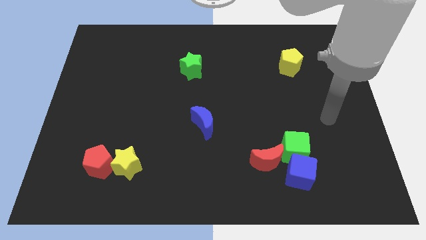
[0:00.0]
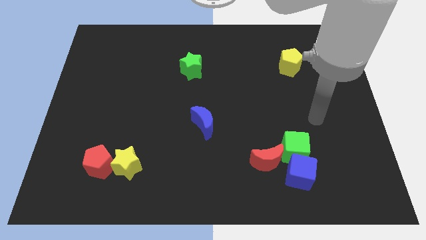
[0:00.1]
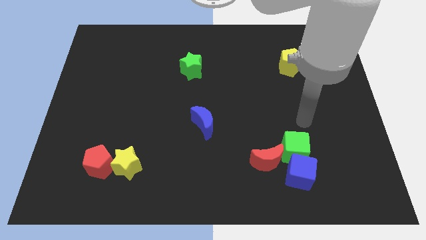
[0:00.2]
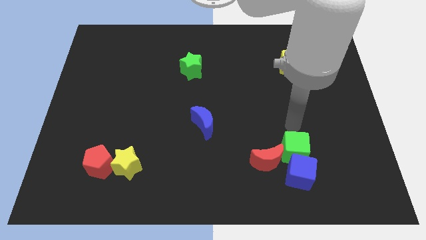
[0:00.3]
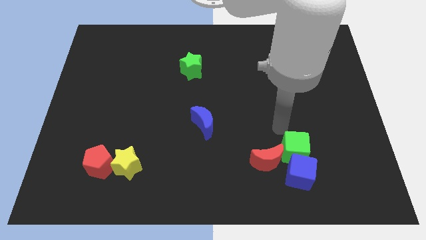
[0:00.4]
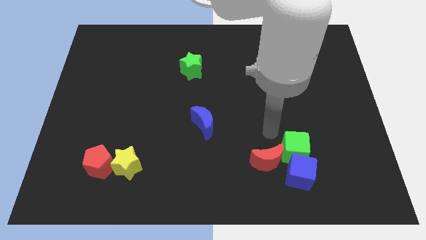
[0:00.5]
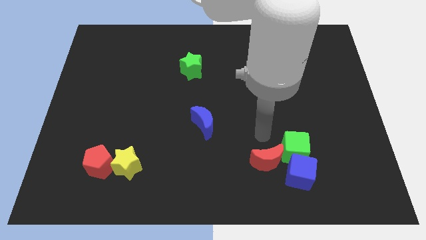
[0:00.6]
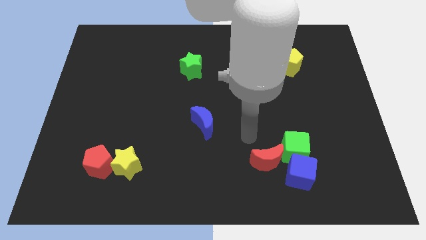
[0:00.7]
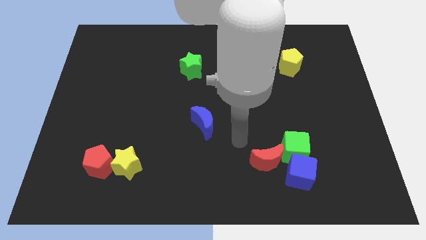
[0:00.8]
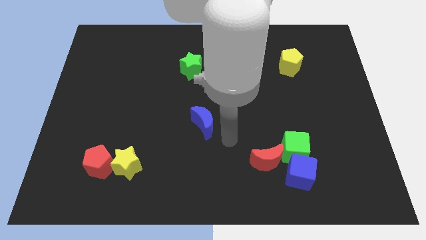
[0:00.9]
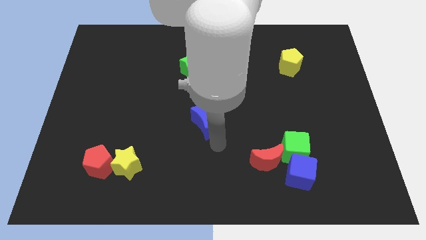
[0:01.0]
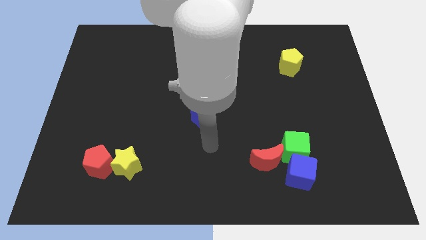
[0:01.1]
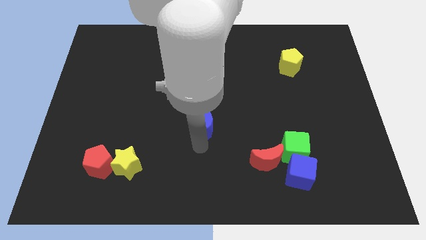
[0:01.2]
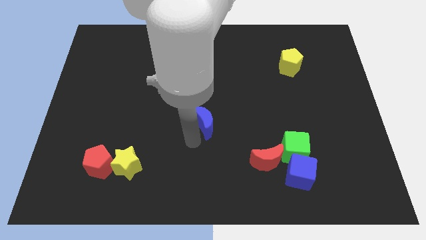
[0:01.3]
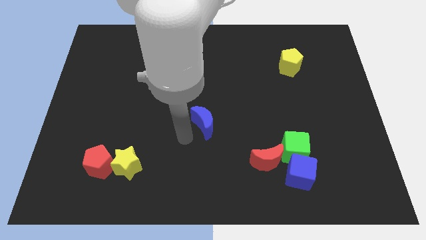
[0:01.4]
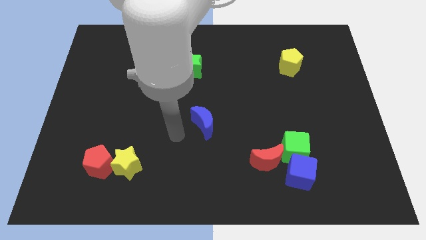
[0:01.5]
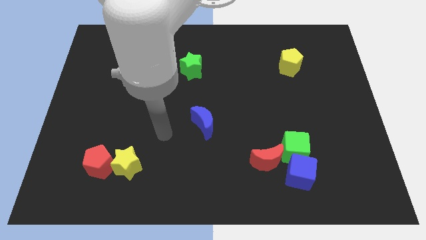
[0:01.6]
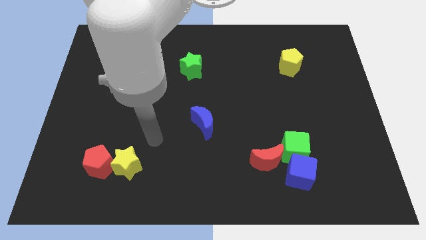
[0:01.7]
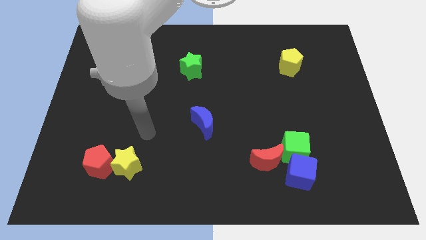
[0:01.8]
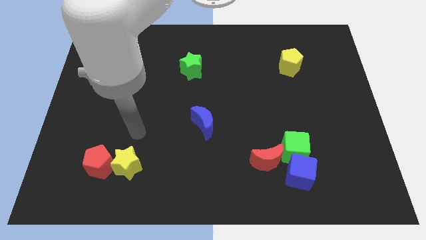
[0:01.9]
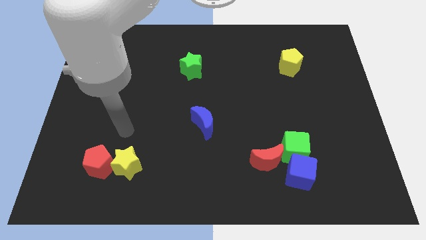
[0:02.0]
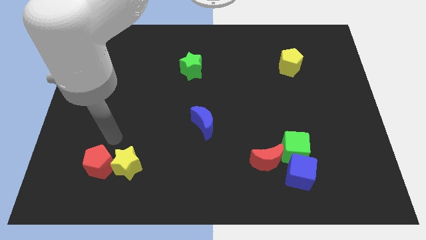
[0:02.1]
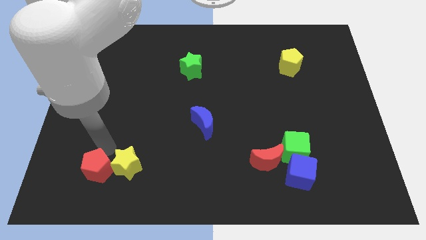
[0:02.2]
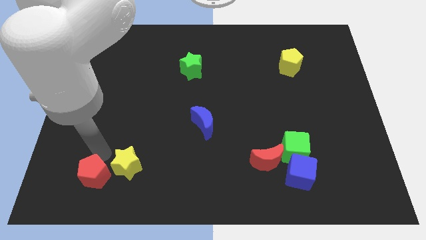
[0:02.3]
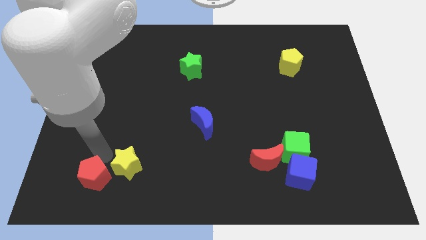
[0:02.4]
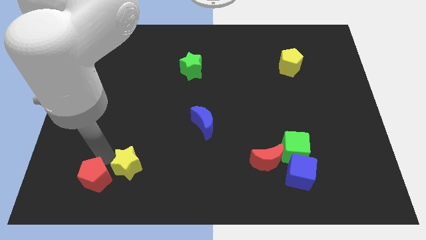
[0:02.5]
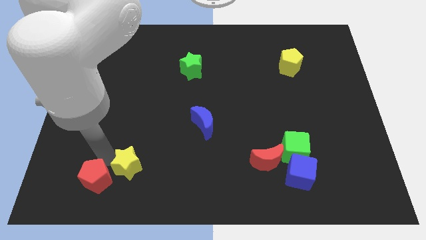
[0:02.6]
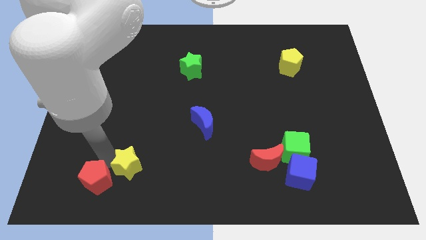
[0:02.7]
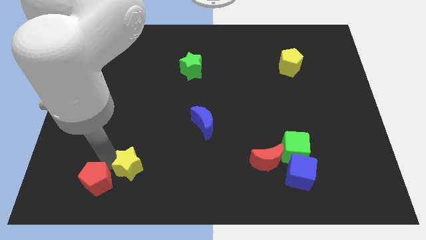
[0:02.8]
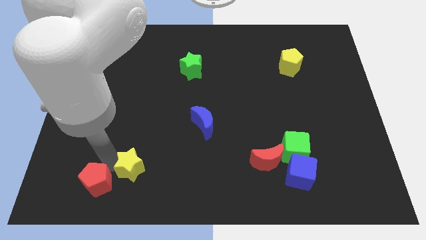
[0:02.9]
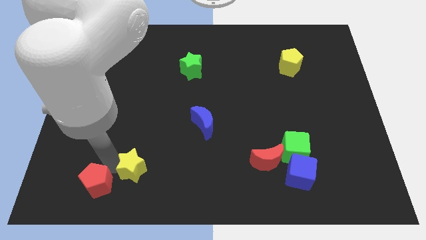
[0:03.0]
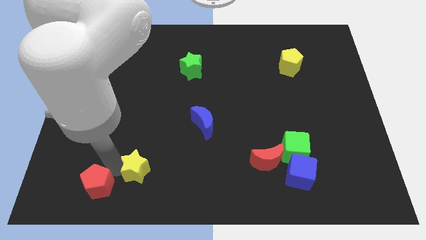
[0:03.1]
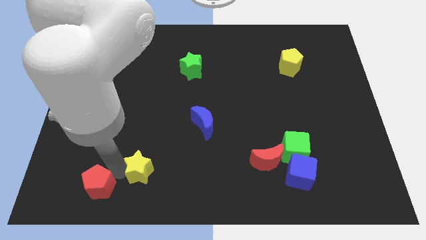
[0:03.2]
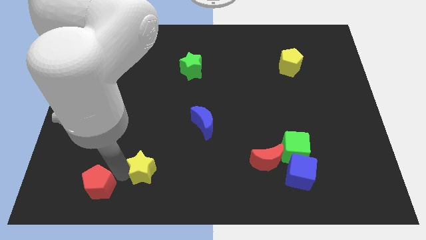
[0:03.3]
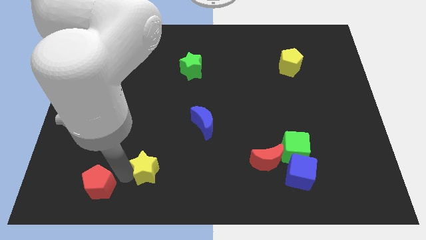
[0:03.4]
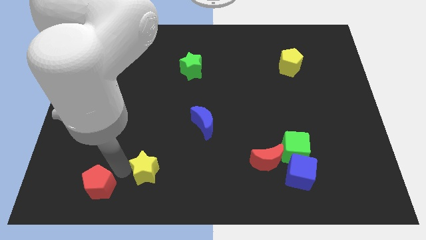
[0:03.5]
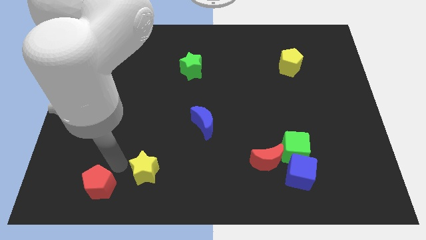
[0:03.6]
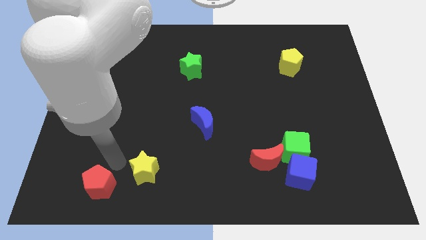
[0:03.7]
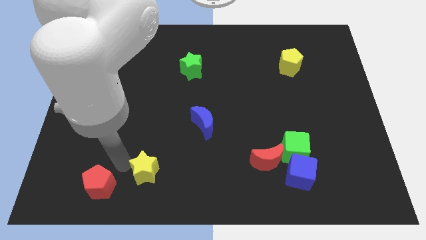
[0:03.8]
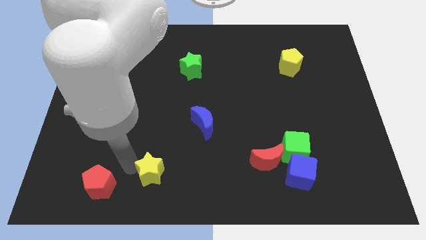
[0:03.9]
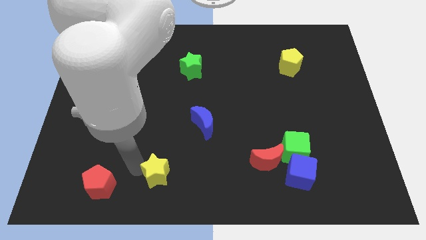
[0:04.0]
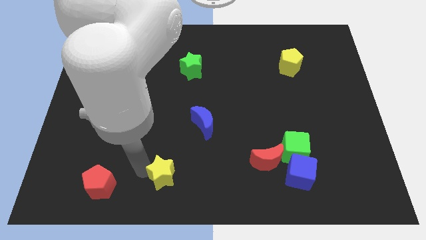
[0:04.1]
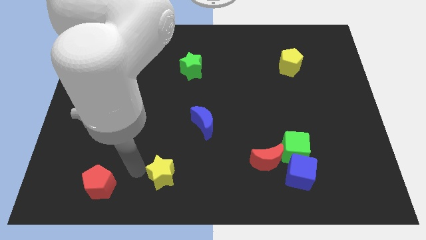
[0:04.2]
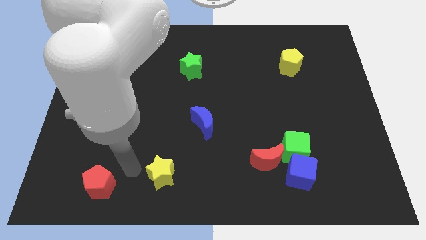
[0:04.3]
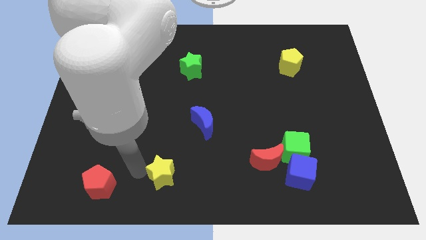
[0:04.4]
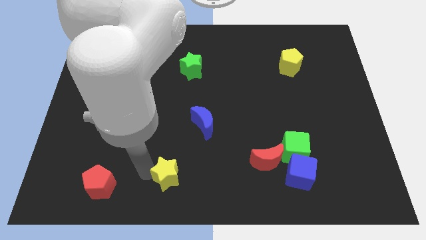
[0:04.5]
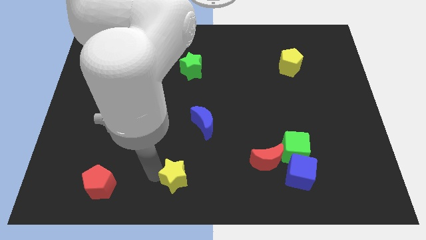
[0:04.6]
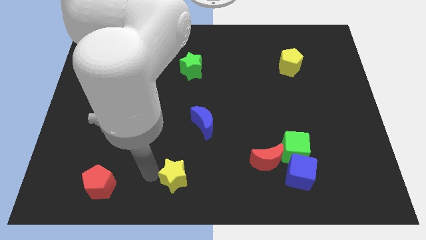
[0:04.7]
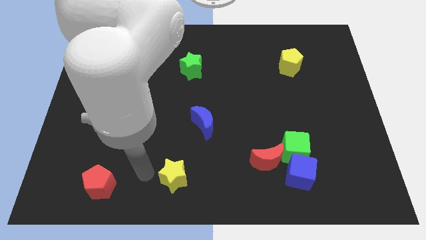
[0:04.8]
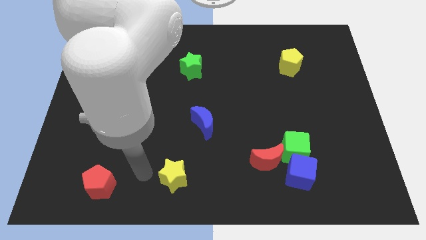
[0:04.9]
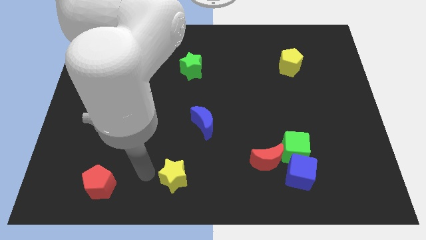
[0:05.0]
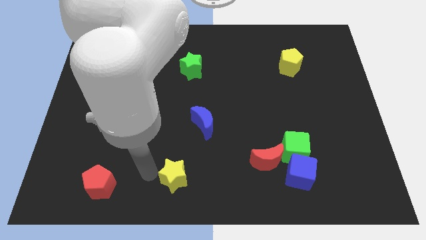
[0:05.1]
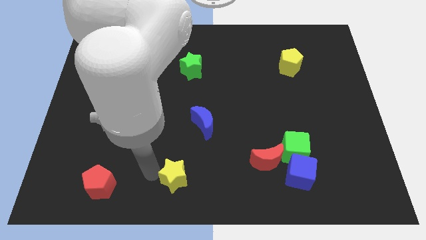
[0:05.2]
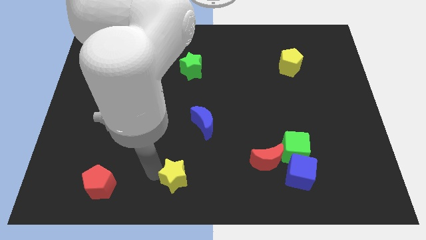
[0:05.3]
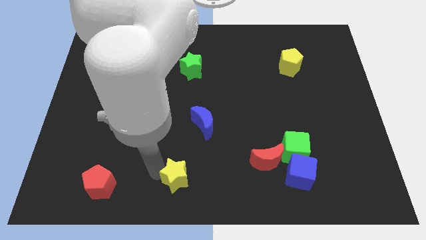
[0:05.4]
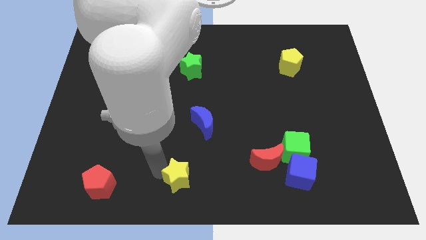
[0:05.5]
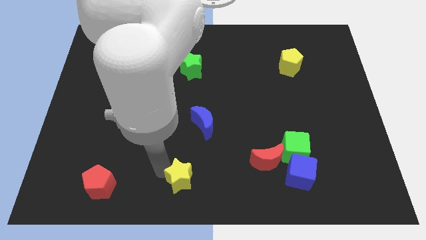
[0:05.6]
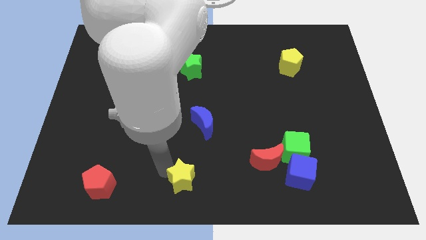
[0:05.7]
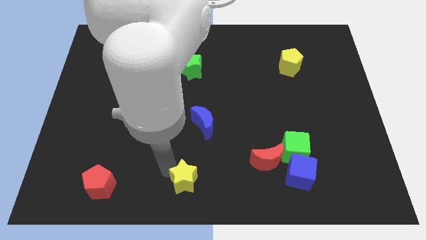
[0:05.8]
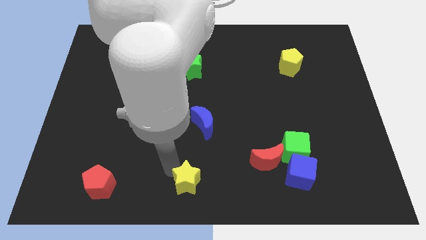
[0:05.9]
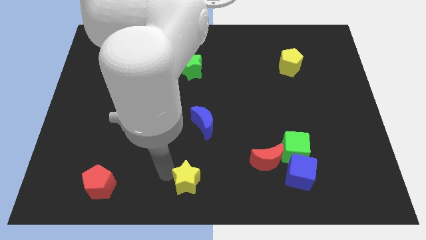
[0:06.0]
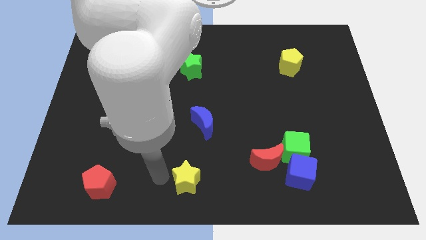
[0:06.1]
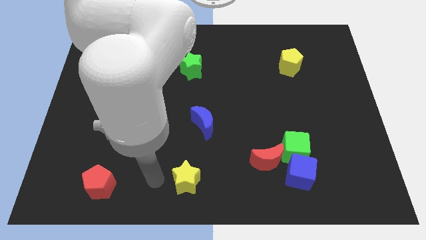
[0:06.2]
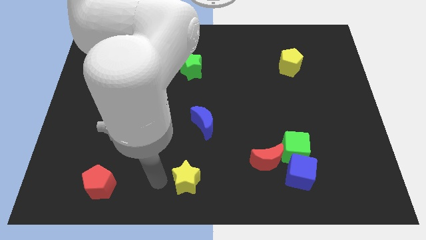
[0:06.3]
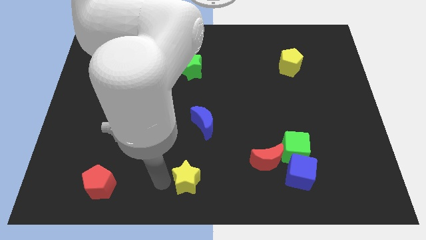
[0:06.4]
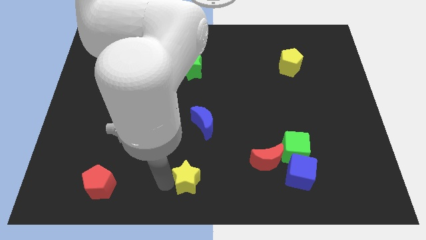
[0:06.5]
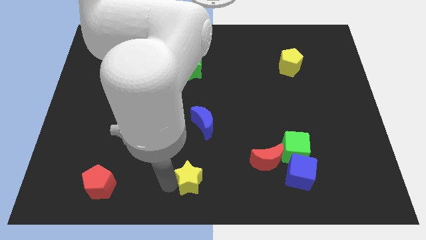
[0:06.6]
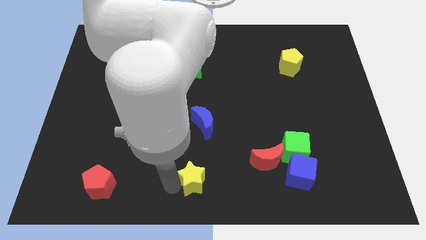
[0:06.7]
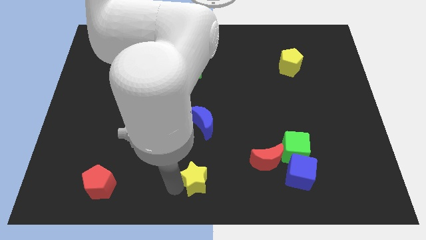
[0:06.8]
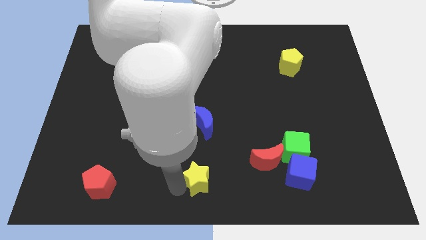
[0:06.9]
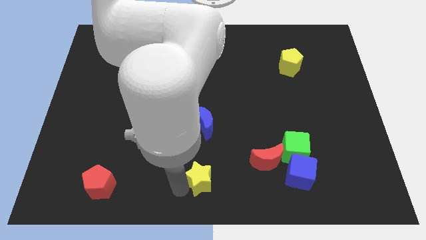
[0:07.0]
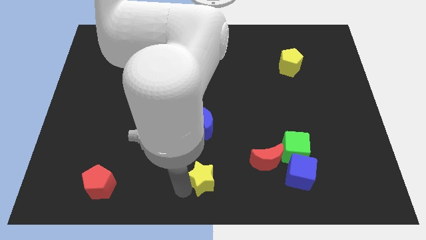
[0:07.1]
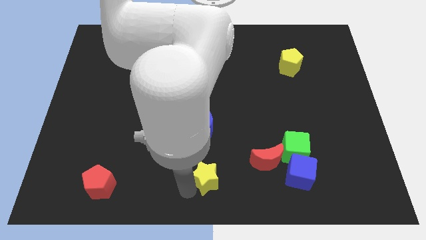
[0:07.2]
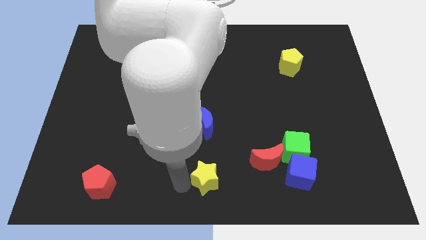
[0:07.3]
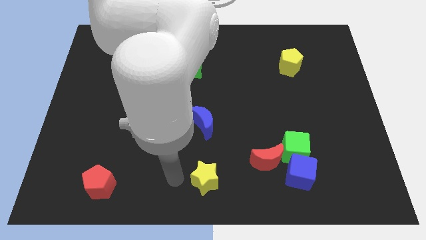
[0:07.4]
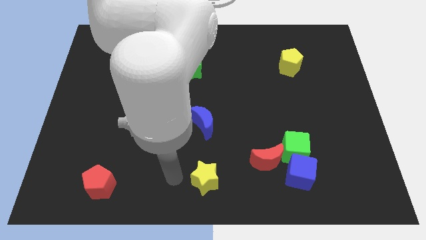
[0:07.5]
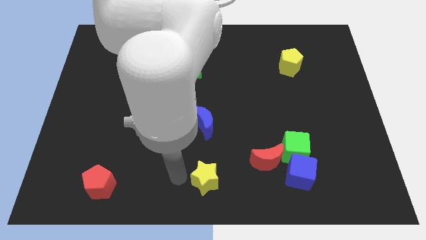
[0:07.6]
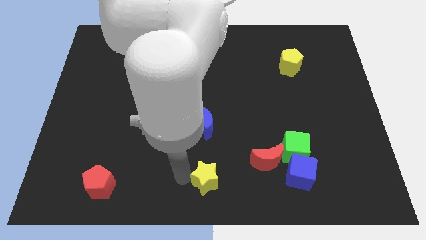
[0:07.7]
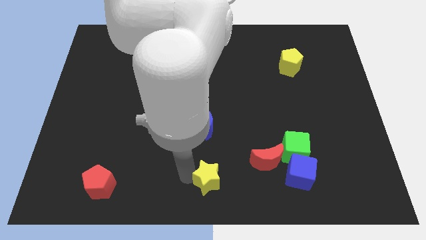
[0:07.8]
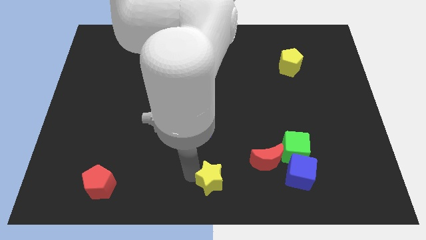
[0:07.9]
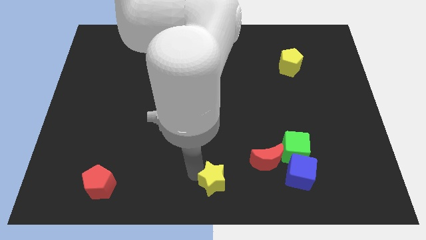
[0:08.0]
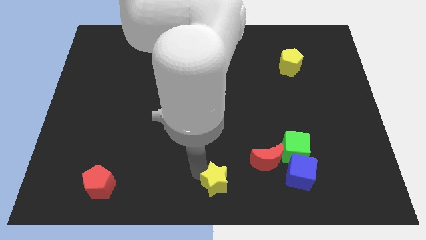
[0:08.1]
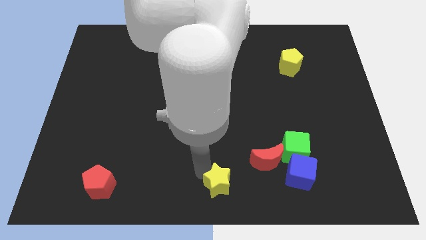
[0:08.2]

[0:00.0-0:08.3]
move the yellow star to the bottom left of the red moon
